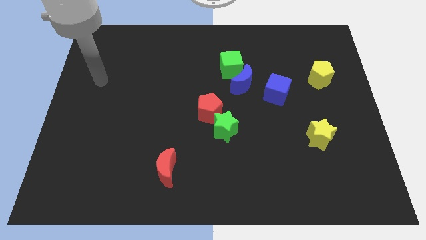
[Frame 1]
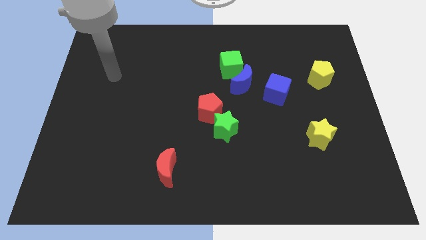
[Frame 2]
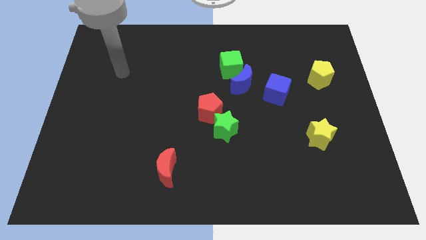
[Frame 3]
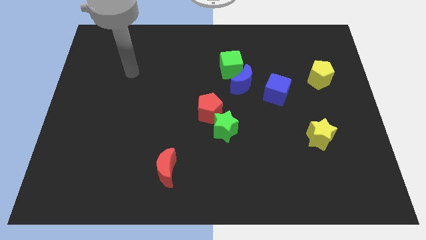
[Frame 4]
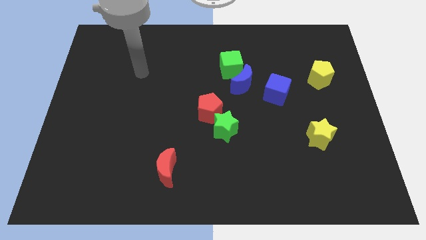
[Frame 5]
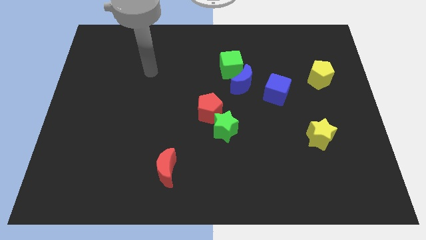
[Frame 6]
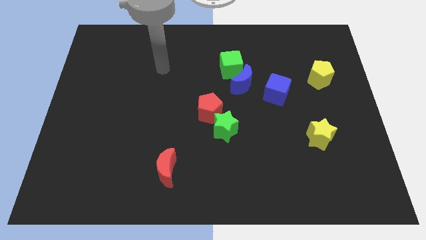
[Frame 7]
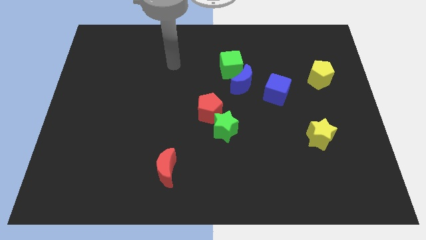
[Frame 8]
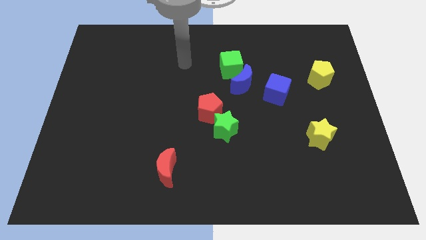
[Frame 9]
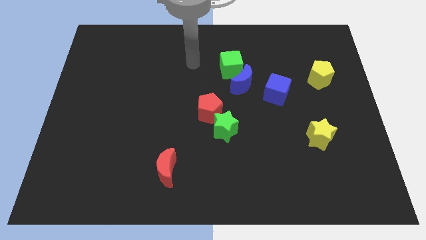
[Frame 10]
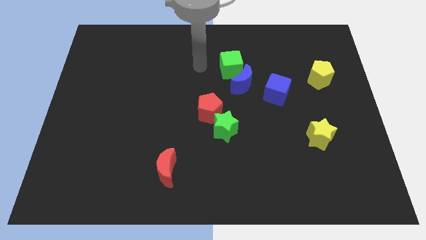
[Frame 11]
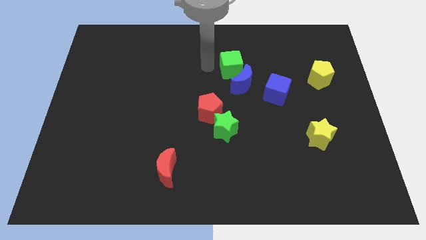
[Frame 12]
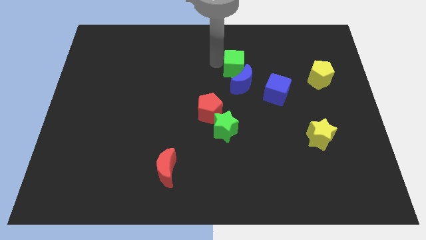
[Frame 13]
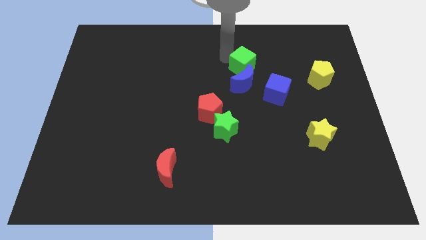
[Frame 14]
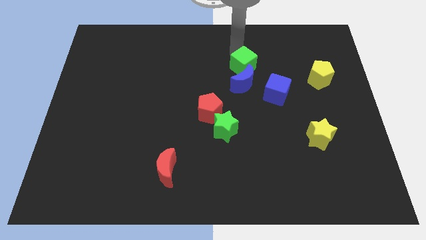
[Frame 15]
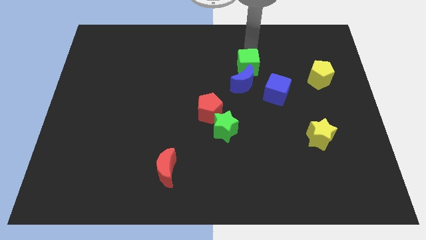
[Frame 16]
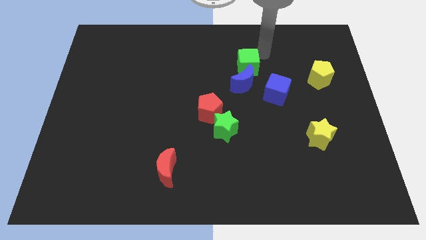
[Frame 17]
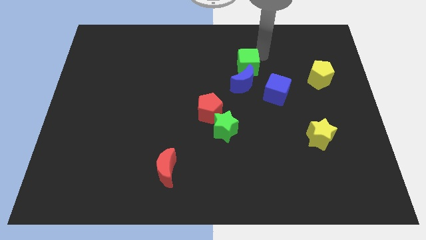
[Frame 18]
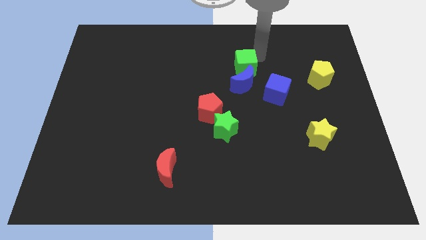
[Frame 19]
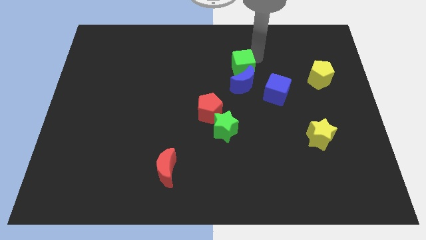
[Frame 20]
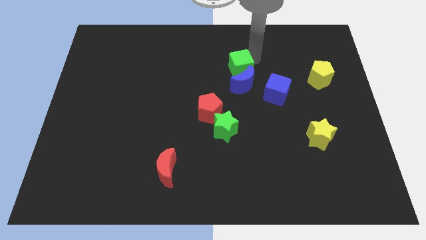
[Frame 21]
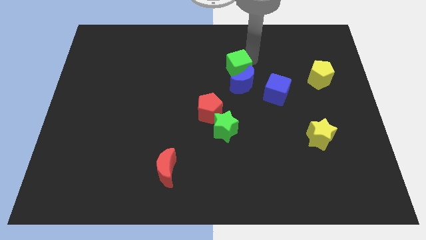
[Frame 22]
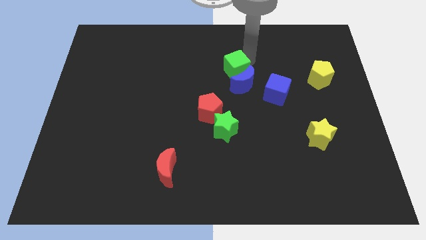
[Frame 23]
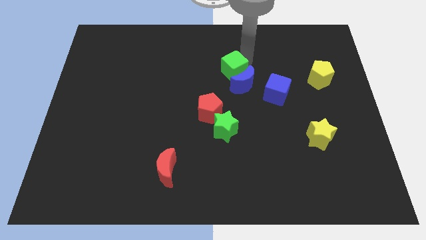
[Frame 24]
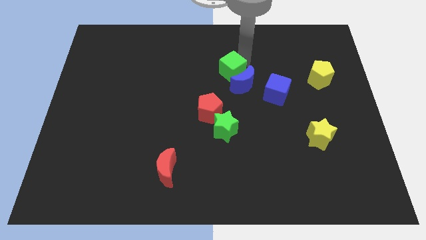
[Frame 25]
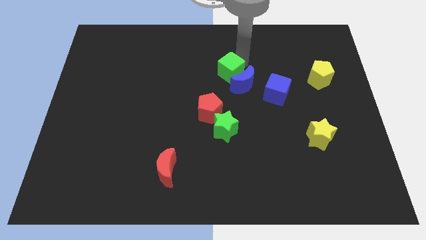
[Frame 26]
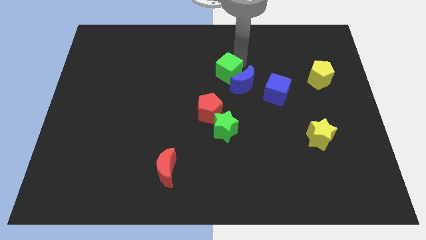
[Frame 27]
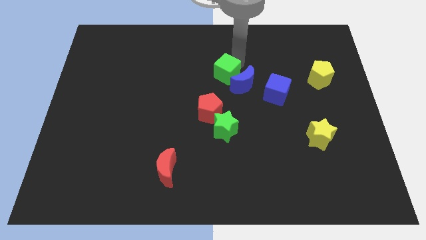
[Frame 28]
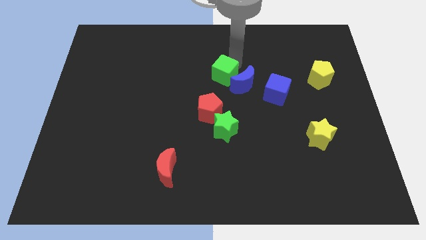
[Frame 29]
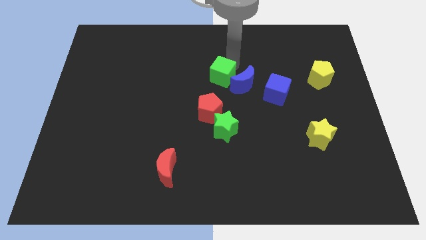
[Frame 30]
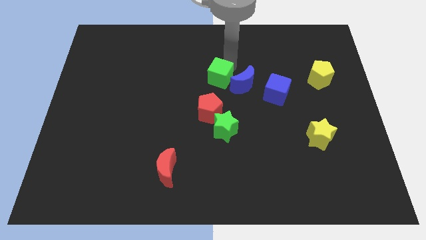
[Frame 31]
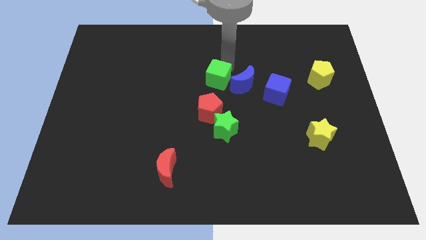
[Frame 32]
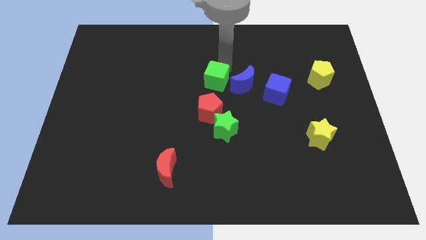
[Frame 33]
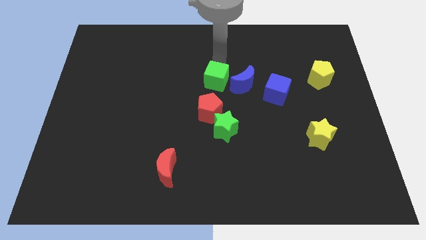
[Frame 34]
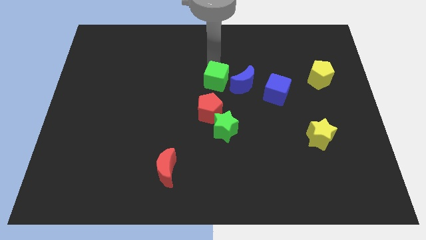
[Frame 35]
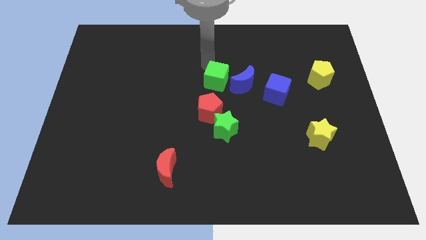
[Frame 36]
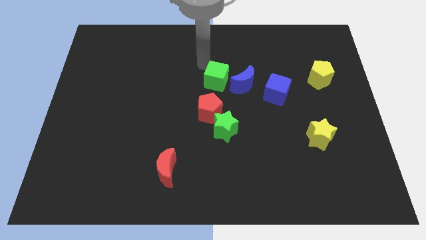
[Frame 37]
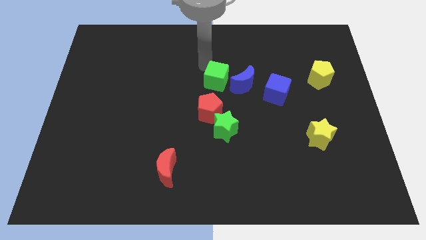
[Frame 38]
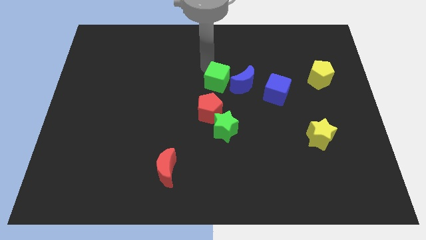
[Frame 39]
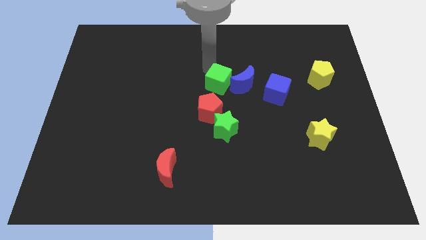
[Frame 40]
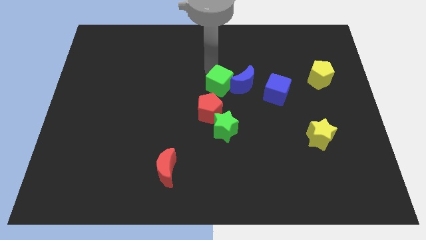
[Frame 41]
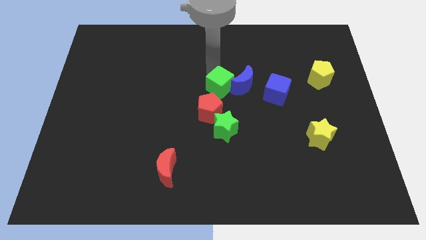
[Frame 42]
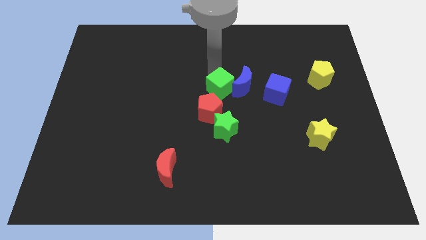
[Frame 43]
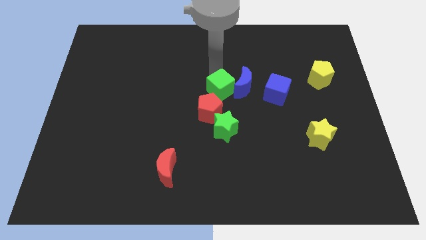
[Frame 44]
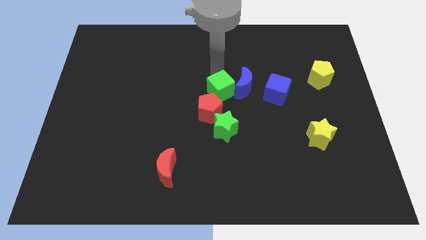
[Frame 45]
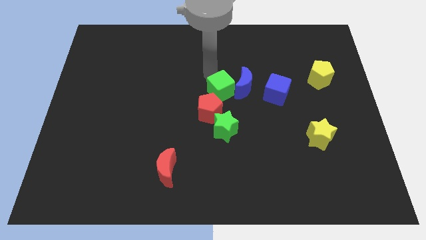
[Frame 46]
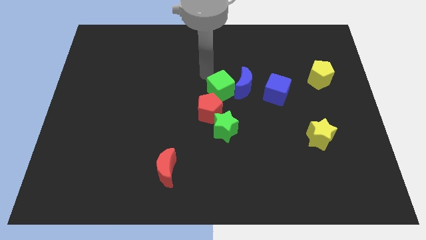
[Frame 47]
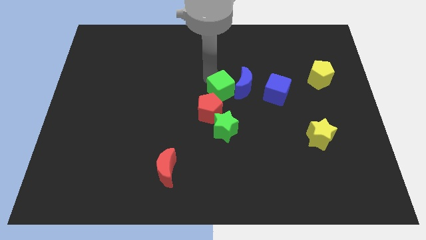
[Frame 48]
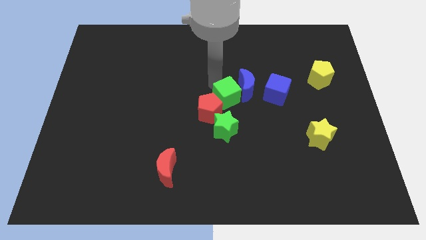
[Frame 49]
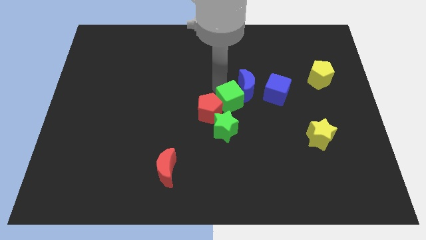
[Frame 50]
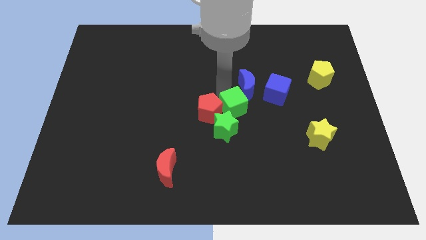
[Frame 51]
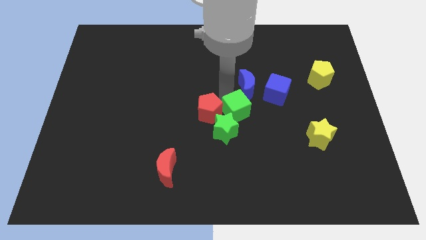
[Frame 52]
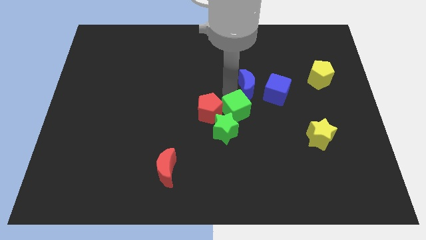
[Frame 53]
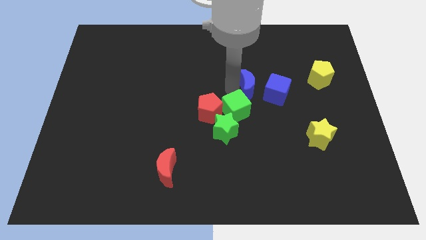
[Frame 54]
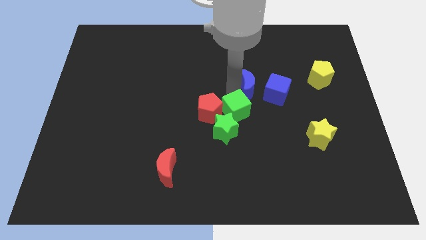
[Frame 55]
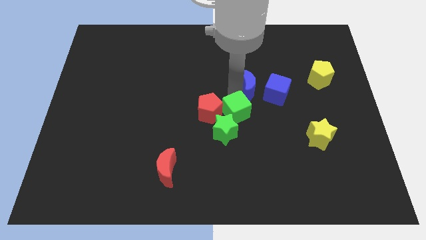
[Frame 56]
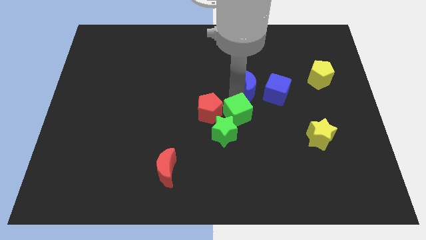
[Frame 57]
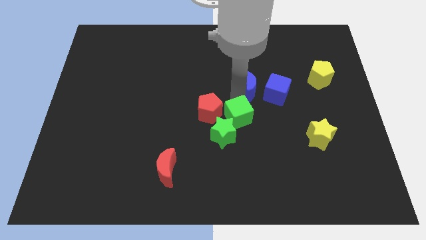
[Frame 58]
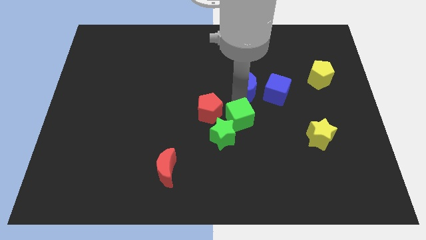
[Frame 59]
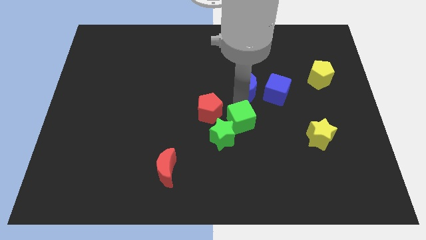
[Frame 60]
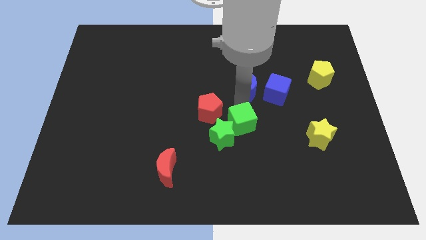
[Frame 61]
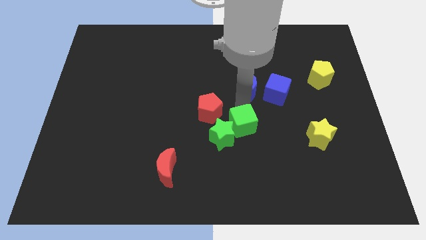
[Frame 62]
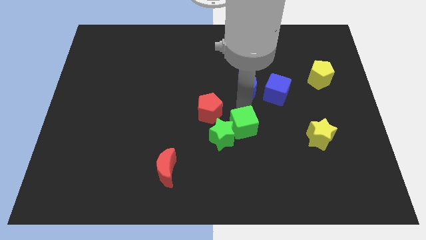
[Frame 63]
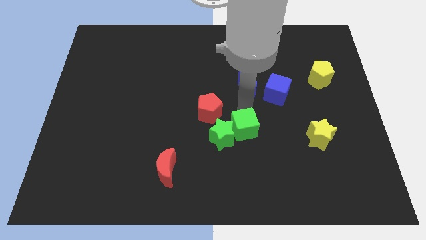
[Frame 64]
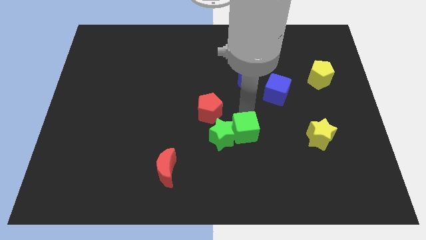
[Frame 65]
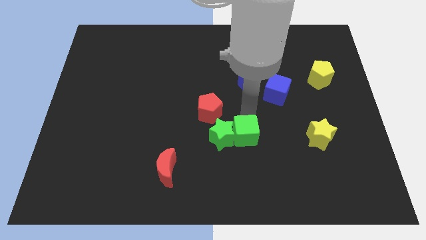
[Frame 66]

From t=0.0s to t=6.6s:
push the green cube downwards

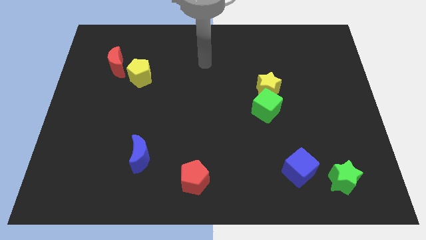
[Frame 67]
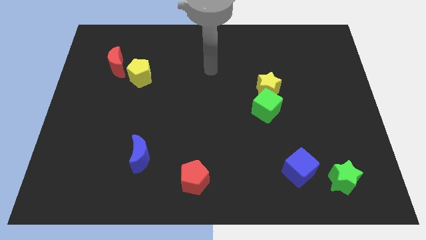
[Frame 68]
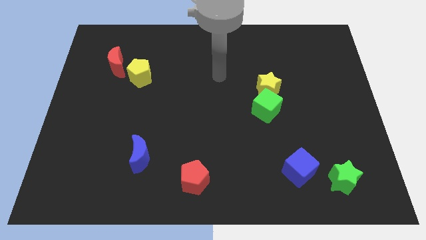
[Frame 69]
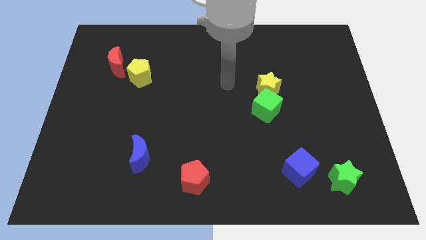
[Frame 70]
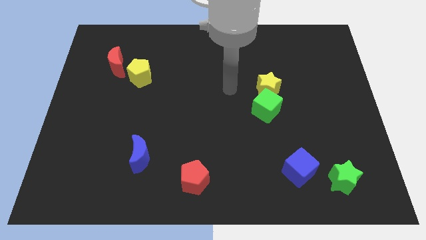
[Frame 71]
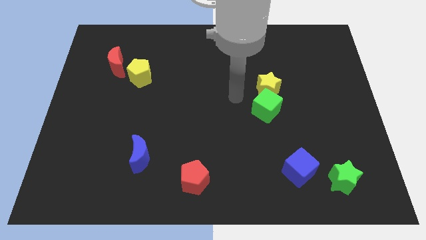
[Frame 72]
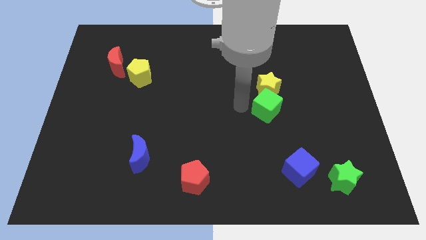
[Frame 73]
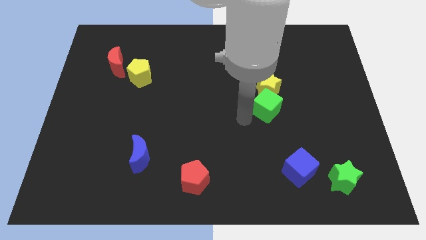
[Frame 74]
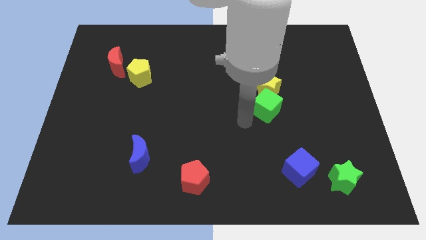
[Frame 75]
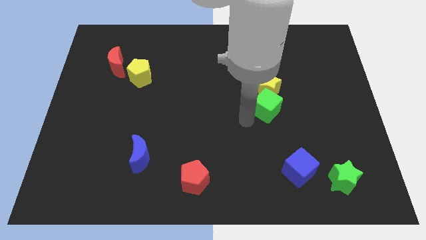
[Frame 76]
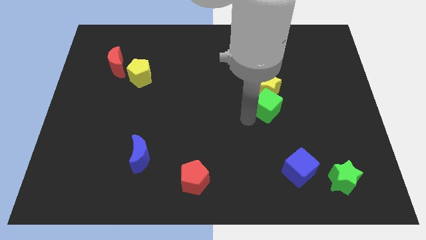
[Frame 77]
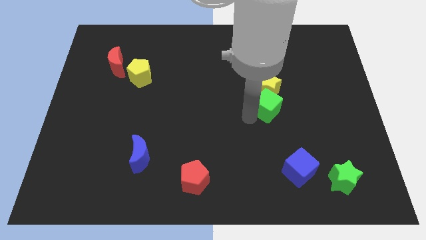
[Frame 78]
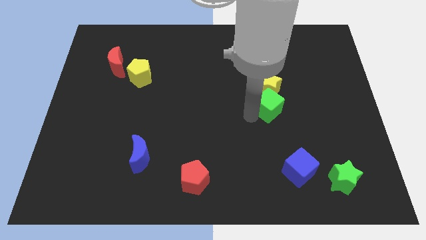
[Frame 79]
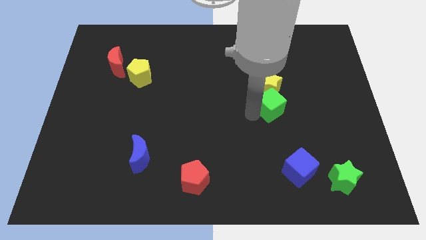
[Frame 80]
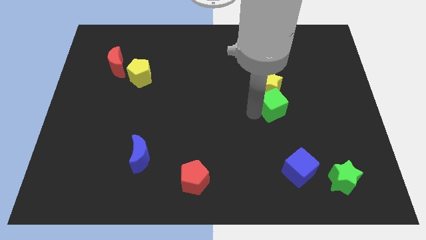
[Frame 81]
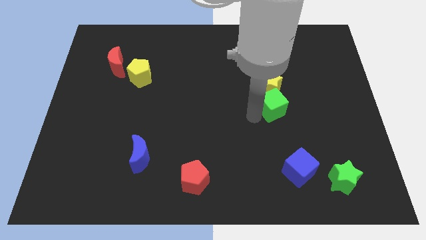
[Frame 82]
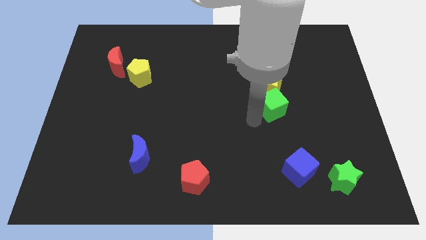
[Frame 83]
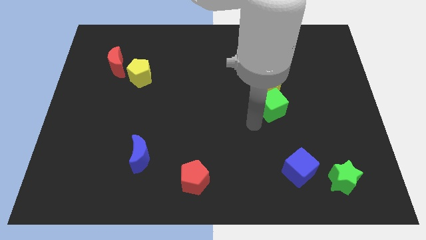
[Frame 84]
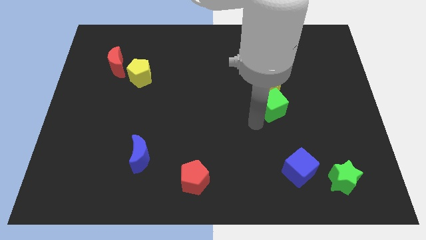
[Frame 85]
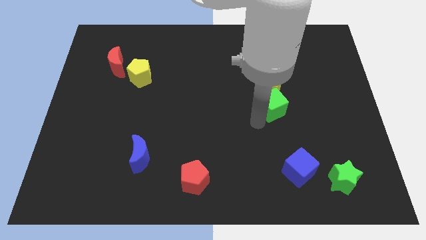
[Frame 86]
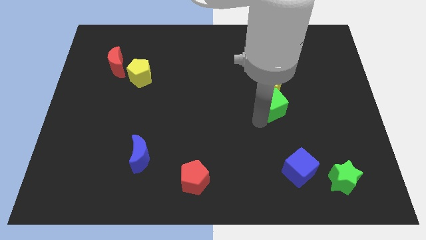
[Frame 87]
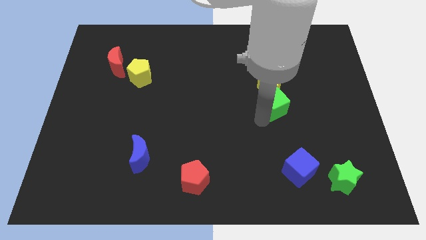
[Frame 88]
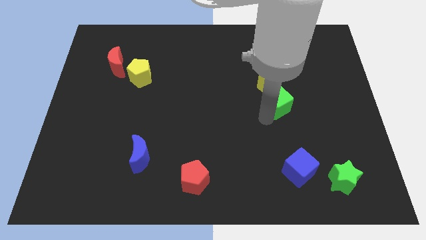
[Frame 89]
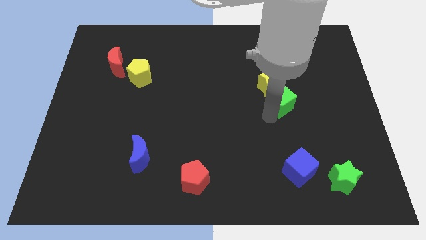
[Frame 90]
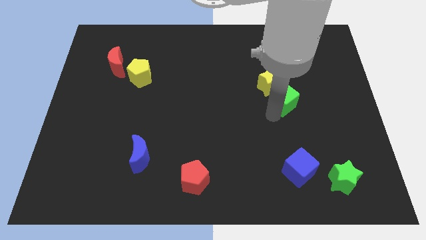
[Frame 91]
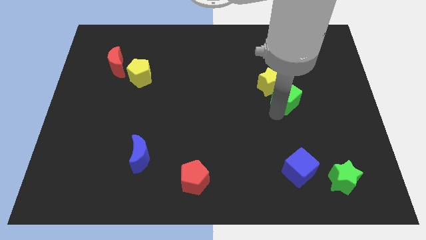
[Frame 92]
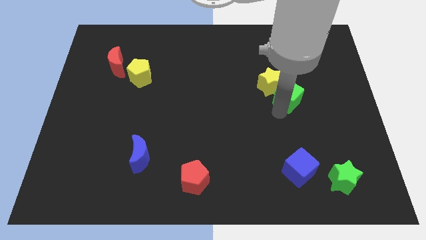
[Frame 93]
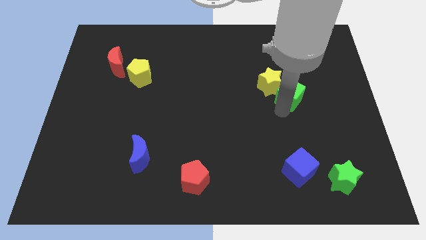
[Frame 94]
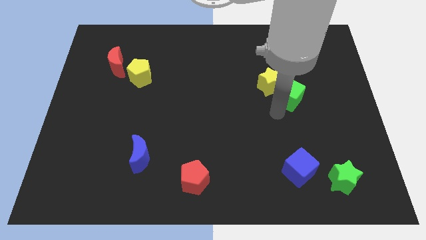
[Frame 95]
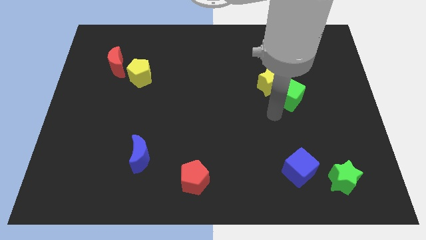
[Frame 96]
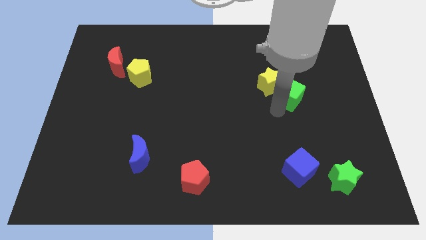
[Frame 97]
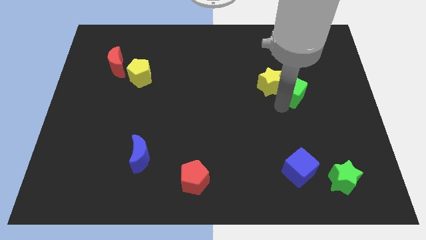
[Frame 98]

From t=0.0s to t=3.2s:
move the green cube a bit up and then to the right
